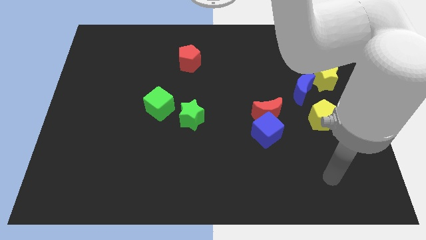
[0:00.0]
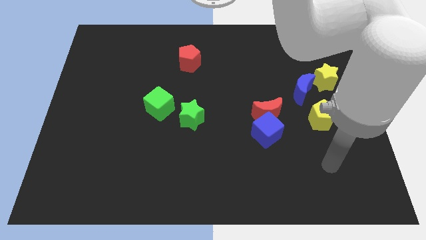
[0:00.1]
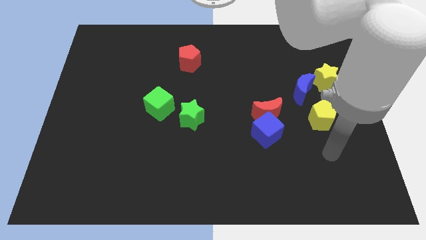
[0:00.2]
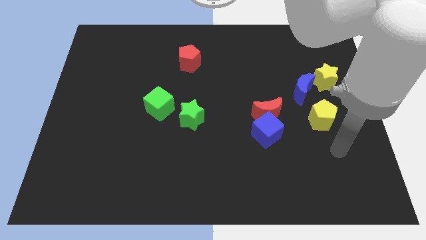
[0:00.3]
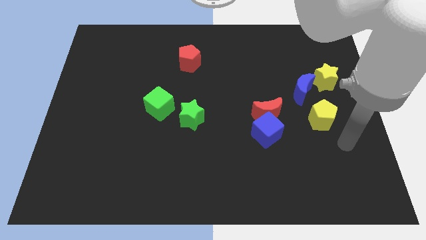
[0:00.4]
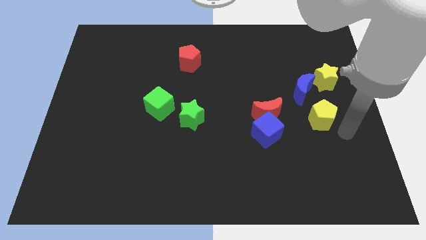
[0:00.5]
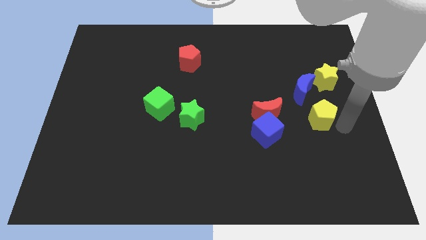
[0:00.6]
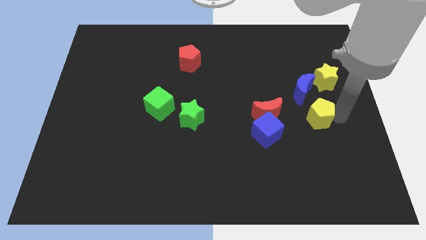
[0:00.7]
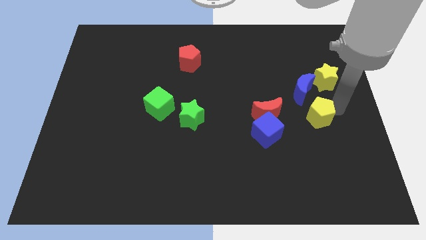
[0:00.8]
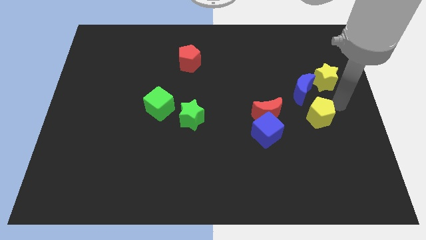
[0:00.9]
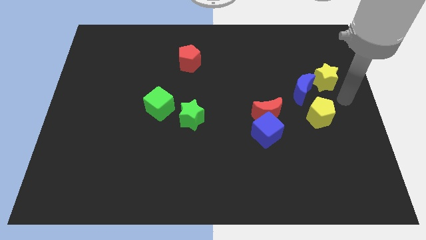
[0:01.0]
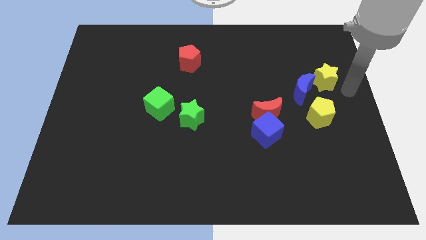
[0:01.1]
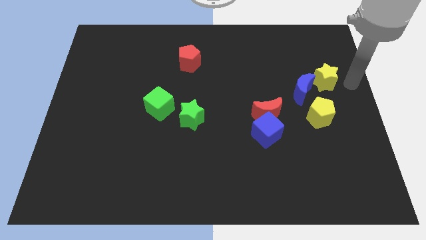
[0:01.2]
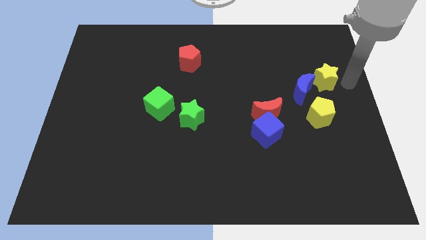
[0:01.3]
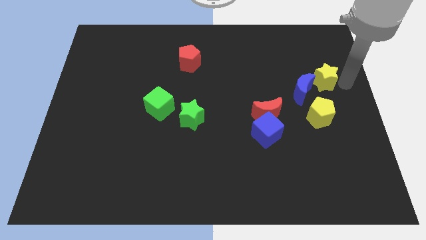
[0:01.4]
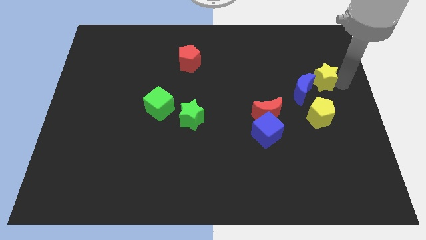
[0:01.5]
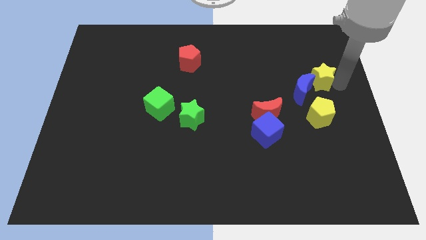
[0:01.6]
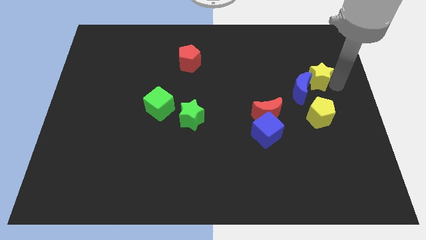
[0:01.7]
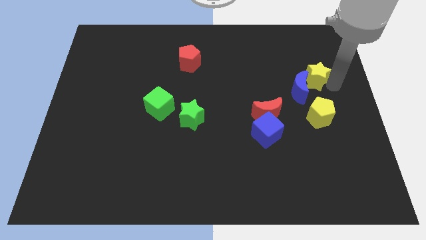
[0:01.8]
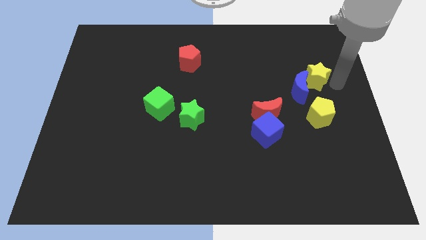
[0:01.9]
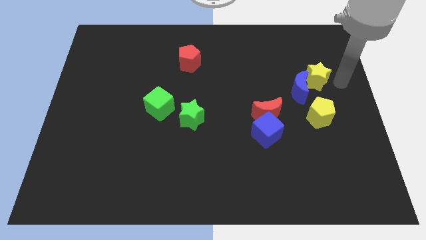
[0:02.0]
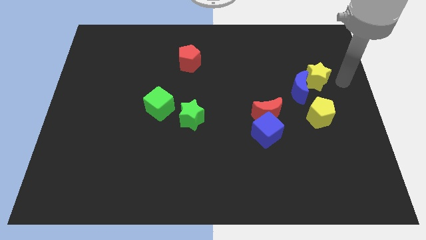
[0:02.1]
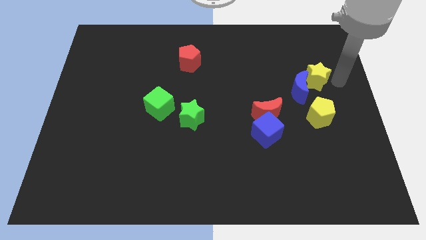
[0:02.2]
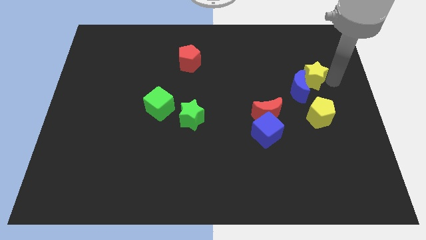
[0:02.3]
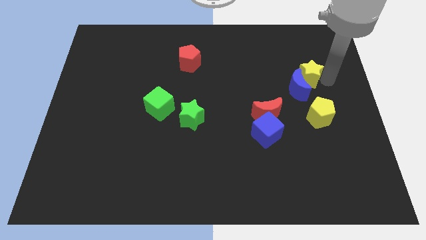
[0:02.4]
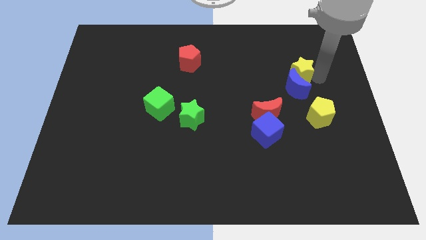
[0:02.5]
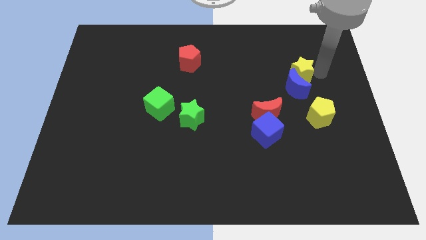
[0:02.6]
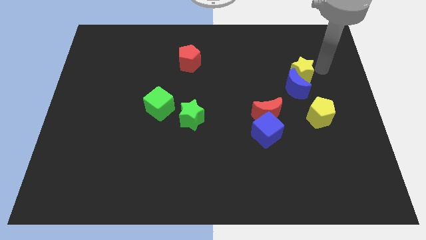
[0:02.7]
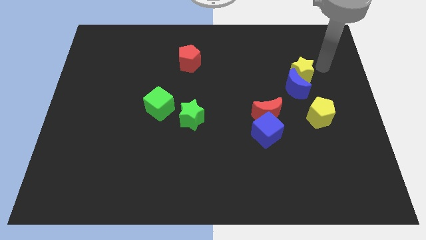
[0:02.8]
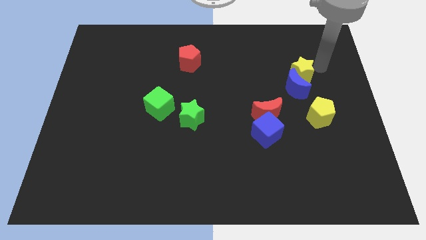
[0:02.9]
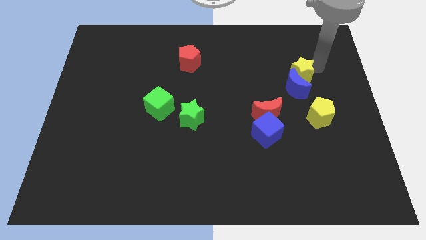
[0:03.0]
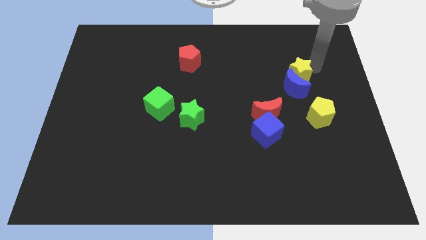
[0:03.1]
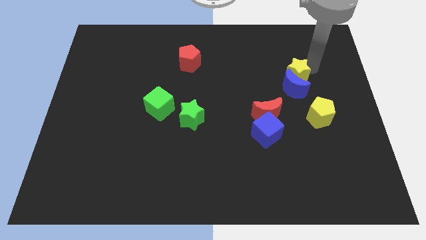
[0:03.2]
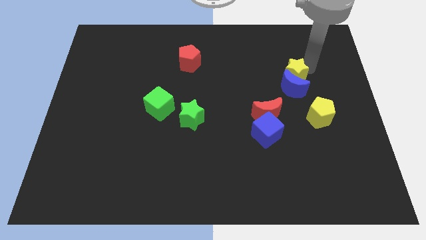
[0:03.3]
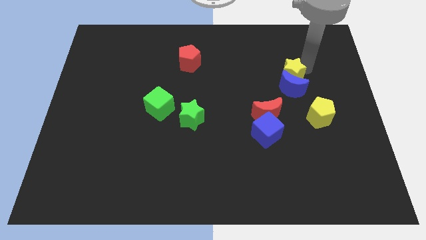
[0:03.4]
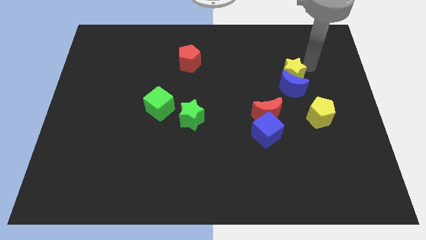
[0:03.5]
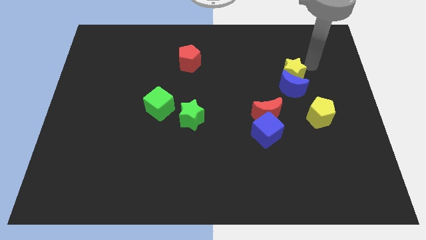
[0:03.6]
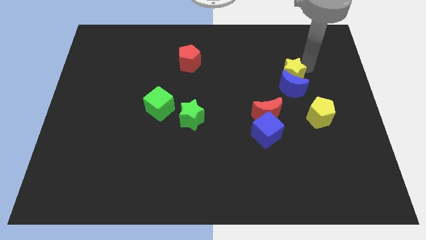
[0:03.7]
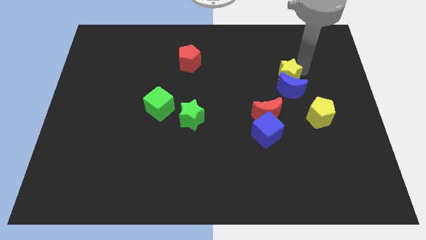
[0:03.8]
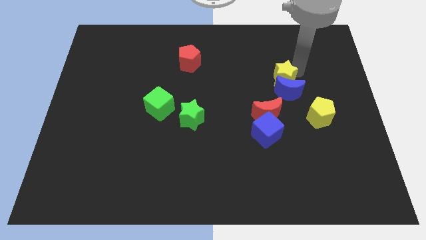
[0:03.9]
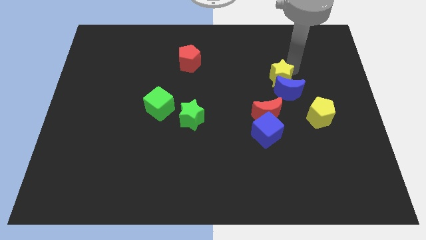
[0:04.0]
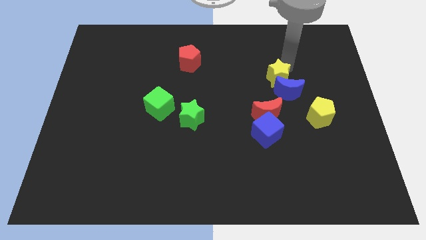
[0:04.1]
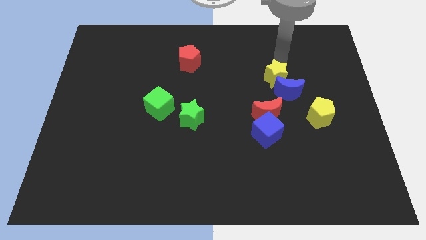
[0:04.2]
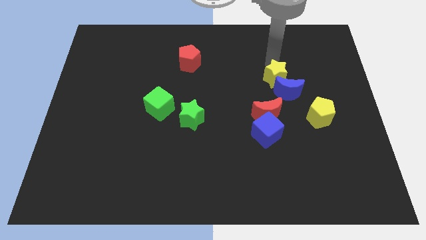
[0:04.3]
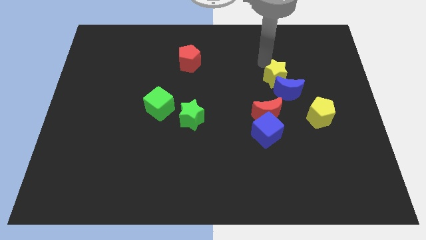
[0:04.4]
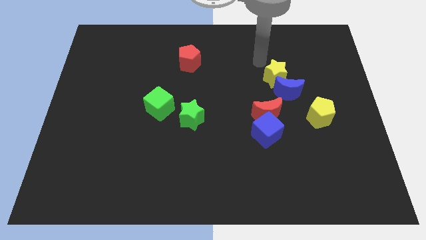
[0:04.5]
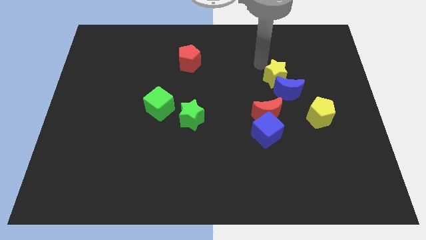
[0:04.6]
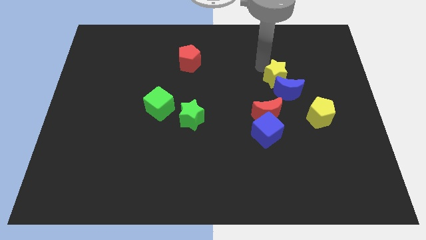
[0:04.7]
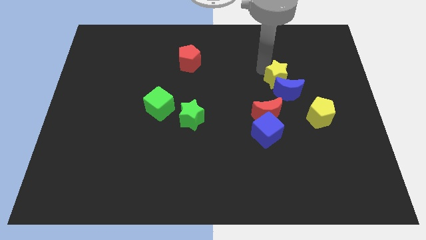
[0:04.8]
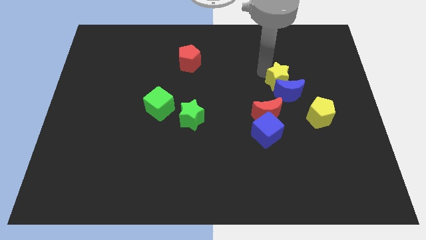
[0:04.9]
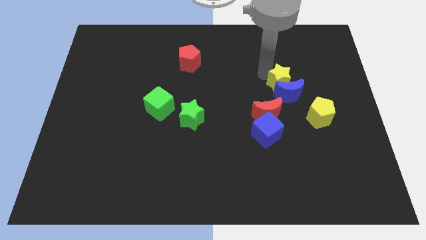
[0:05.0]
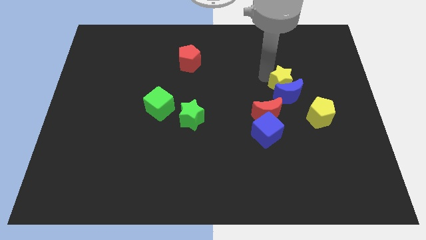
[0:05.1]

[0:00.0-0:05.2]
push the yellow star diagonally up and to the left of the yellow pentagon

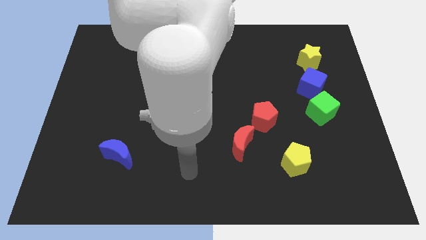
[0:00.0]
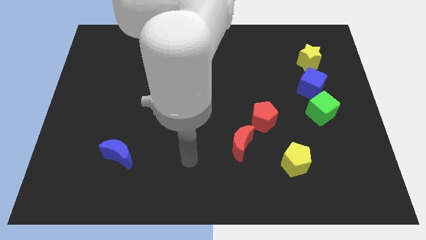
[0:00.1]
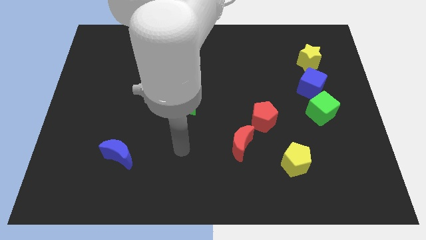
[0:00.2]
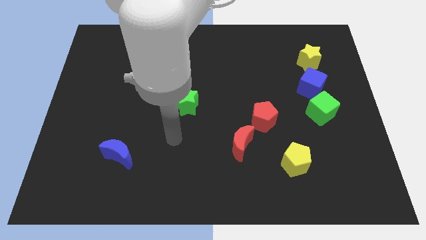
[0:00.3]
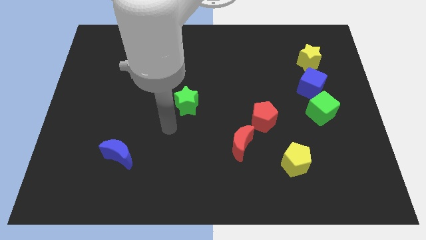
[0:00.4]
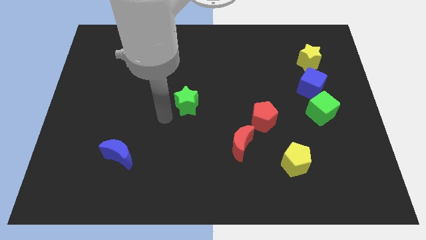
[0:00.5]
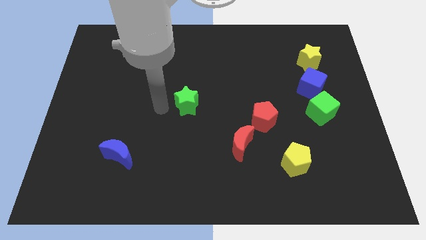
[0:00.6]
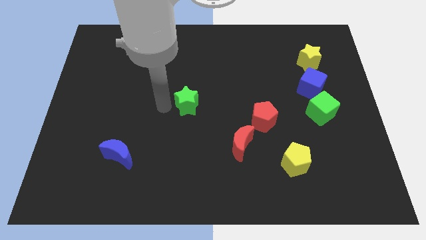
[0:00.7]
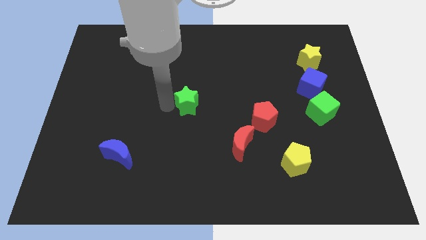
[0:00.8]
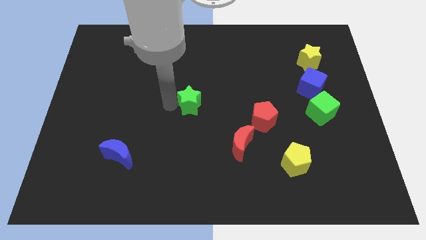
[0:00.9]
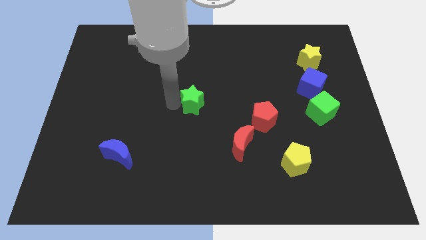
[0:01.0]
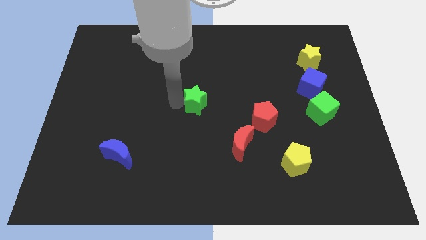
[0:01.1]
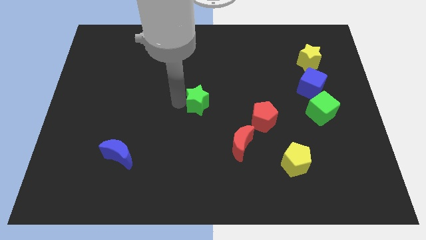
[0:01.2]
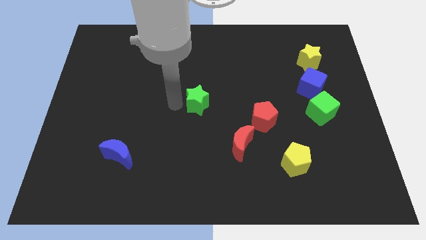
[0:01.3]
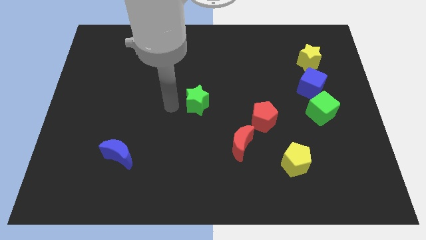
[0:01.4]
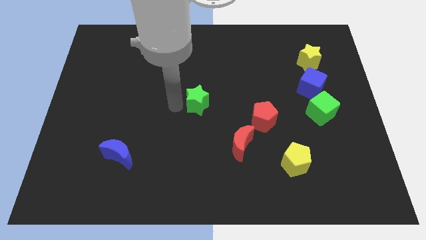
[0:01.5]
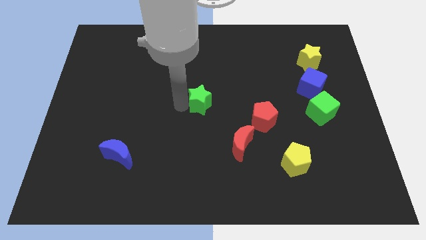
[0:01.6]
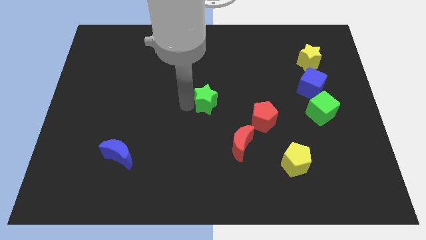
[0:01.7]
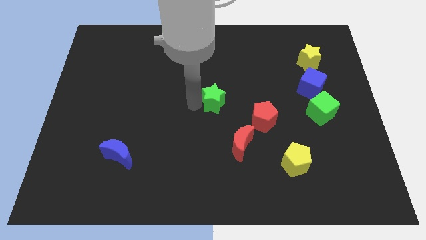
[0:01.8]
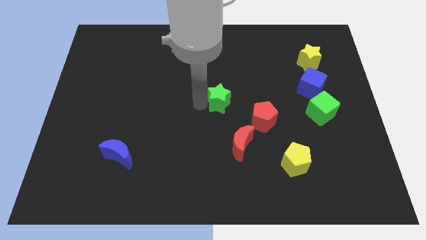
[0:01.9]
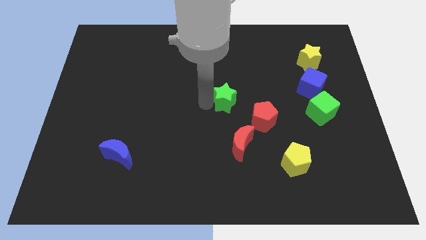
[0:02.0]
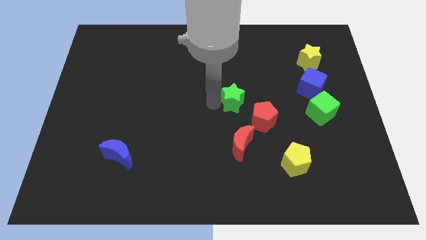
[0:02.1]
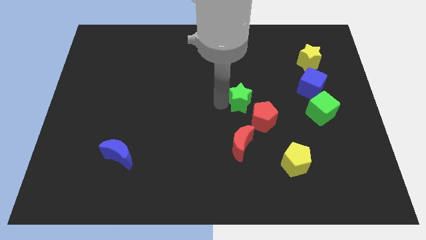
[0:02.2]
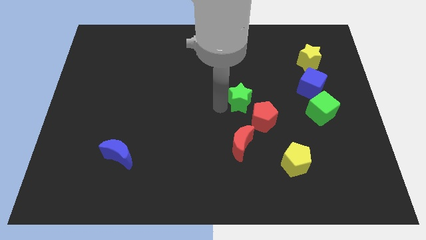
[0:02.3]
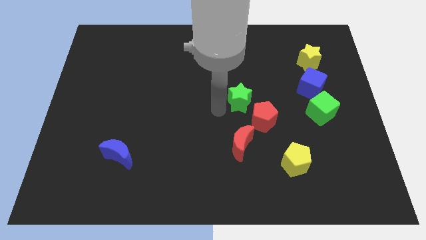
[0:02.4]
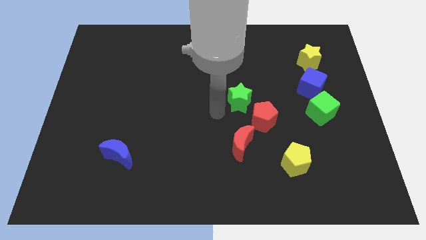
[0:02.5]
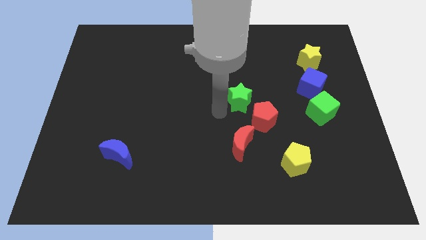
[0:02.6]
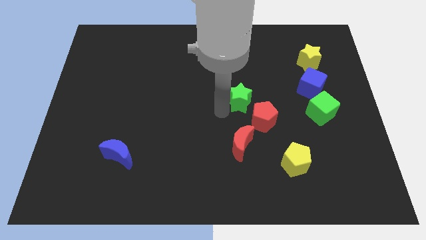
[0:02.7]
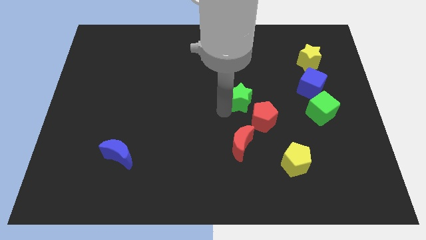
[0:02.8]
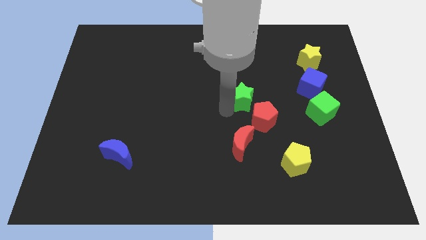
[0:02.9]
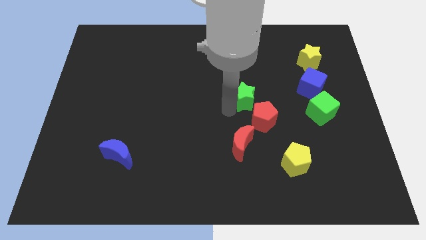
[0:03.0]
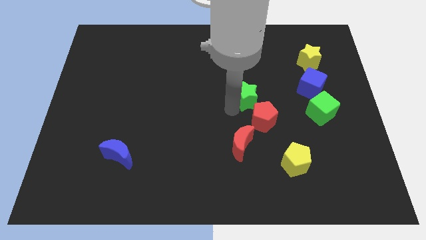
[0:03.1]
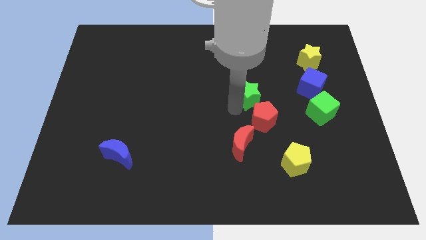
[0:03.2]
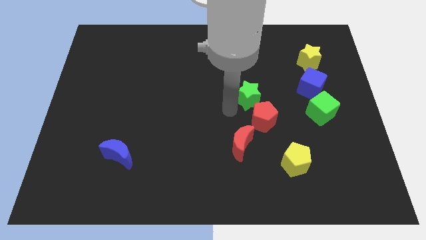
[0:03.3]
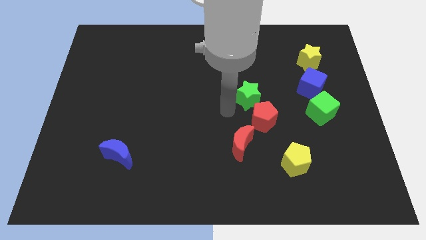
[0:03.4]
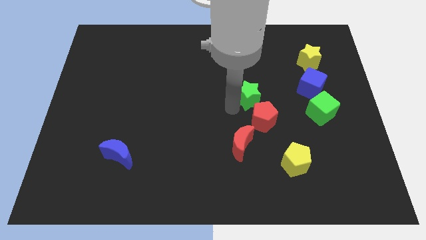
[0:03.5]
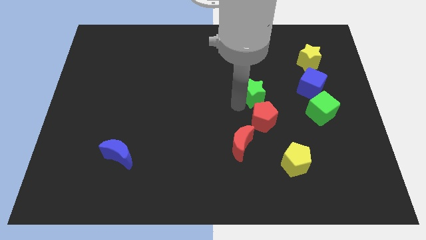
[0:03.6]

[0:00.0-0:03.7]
push the green star to the left side of the blue cube
